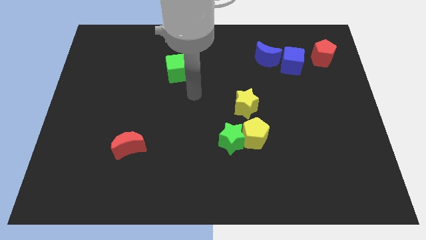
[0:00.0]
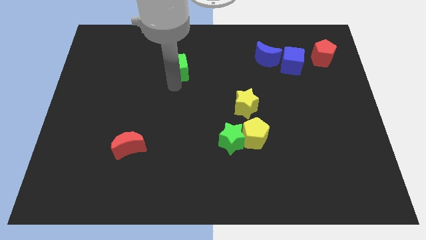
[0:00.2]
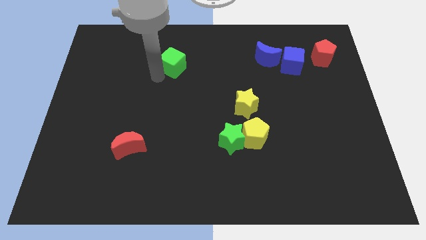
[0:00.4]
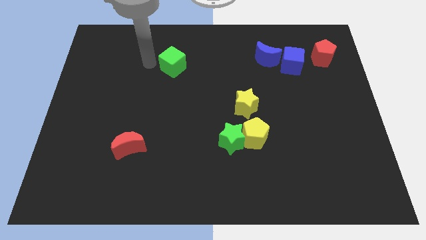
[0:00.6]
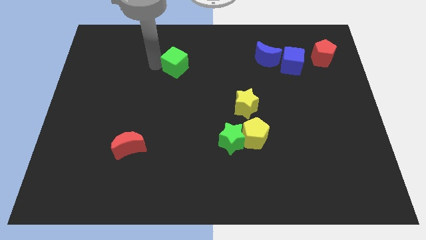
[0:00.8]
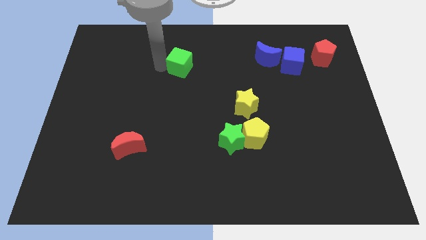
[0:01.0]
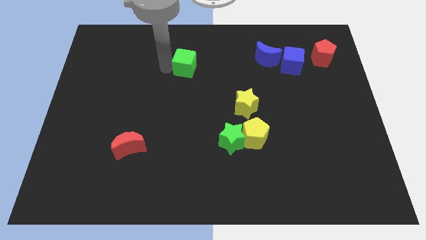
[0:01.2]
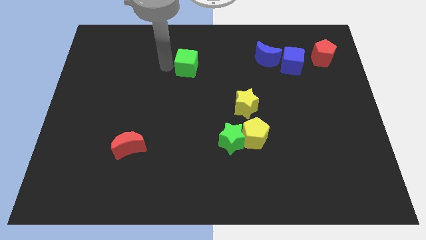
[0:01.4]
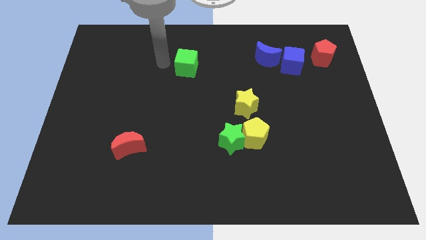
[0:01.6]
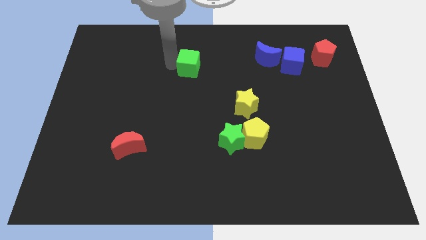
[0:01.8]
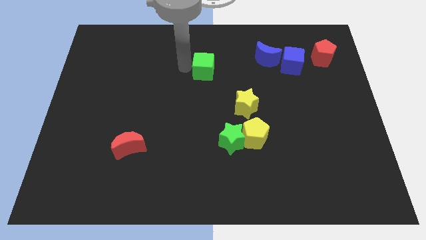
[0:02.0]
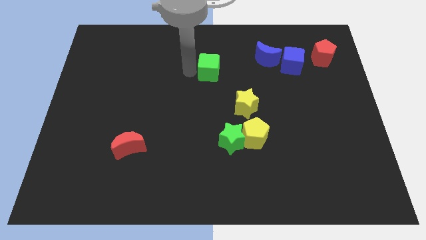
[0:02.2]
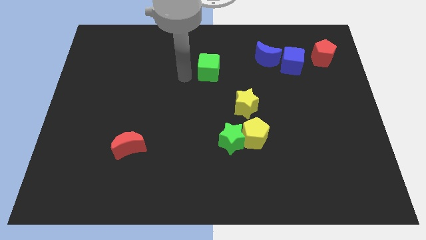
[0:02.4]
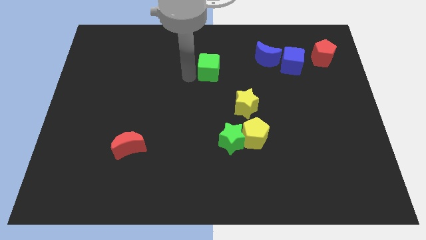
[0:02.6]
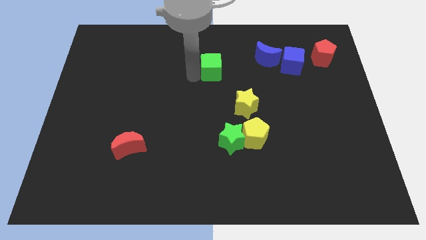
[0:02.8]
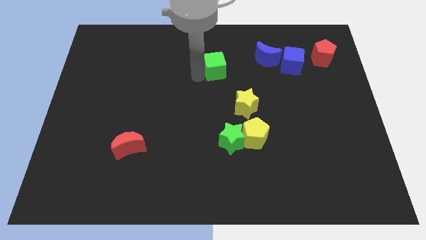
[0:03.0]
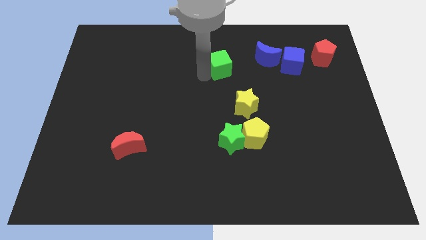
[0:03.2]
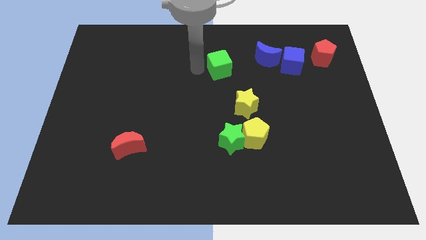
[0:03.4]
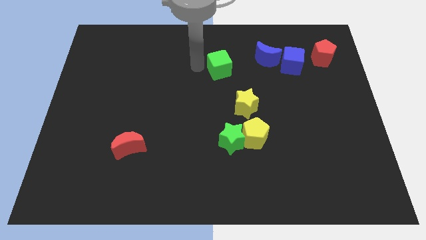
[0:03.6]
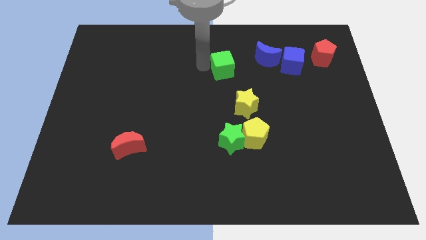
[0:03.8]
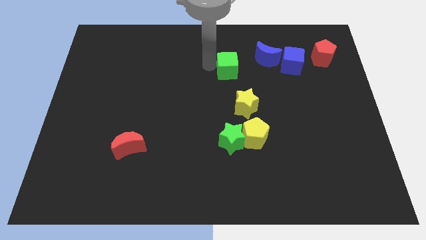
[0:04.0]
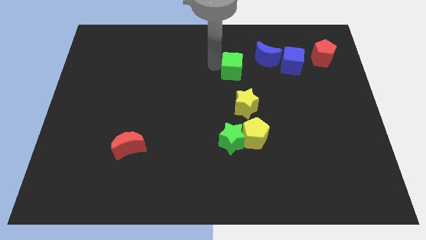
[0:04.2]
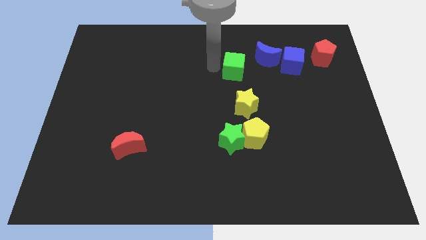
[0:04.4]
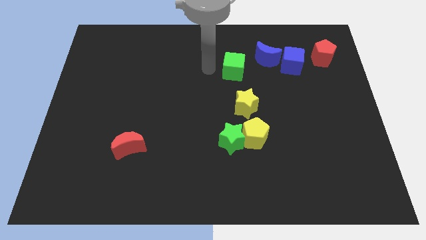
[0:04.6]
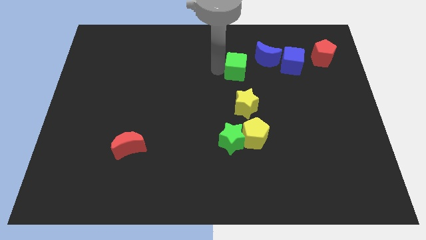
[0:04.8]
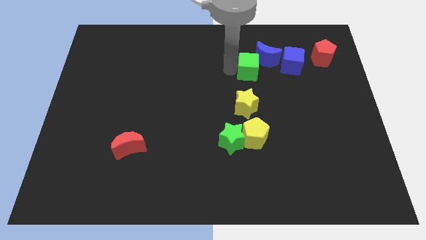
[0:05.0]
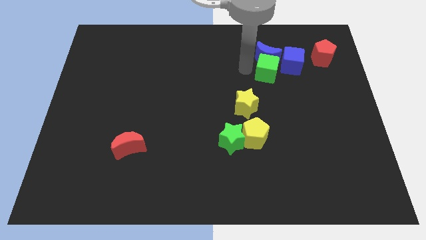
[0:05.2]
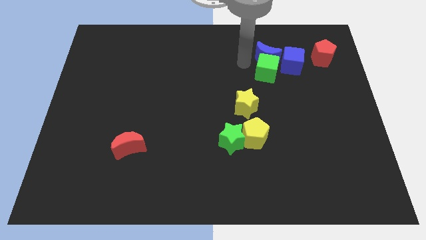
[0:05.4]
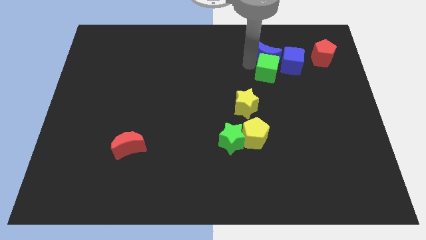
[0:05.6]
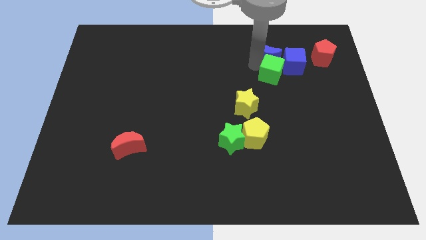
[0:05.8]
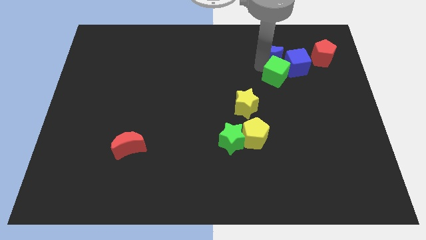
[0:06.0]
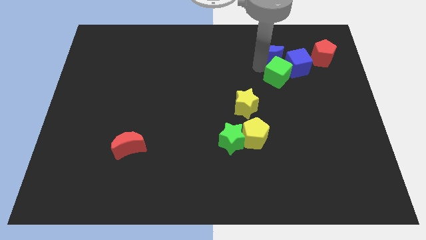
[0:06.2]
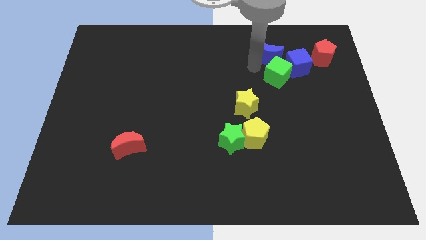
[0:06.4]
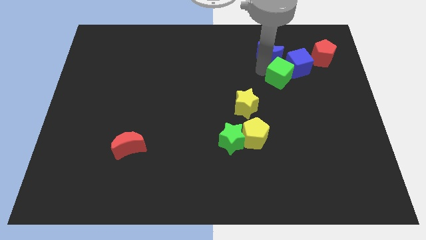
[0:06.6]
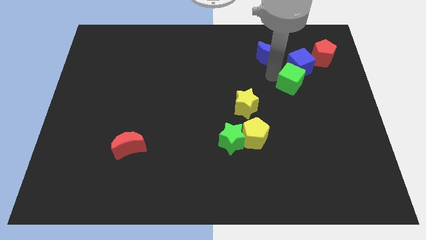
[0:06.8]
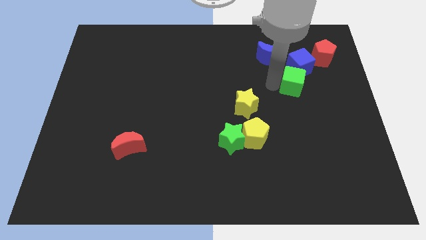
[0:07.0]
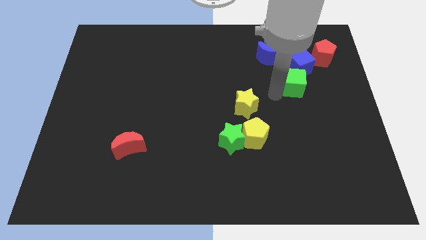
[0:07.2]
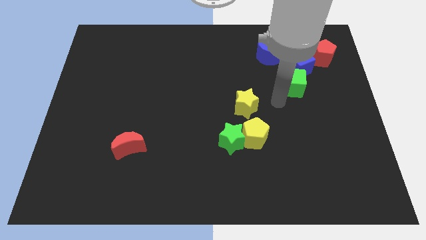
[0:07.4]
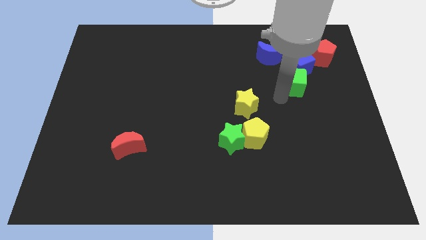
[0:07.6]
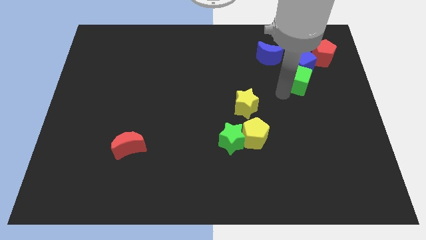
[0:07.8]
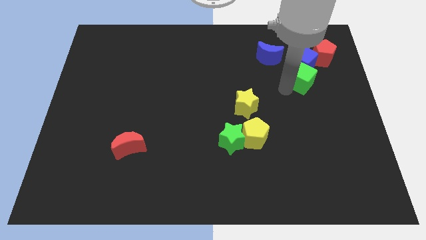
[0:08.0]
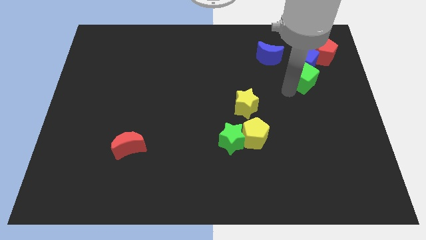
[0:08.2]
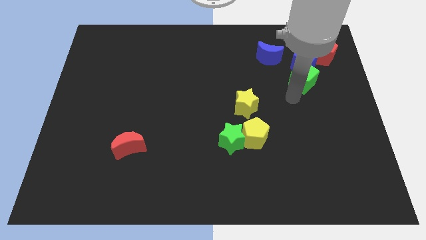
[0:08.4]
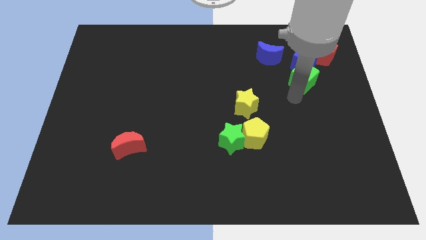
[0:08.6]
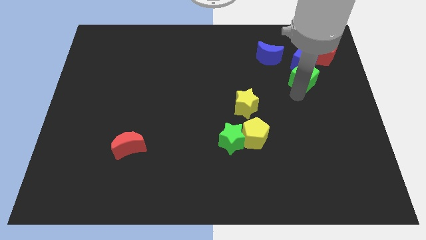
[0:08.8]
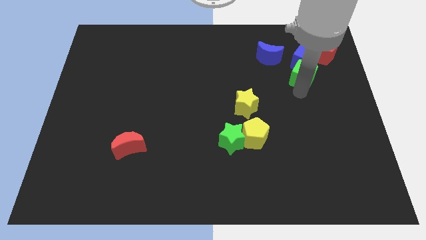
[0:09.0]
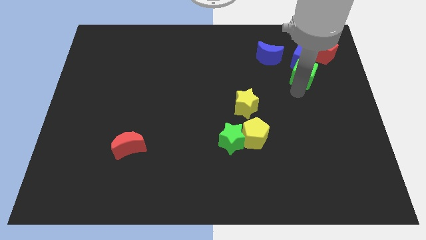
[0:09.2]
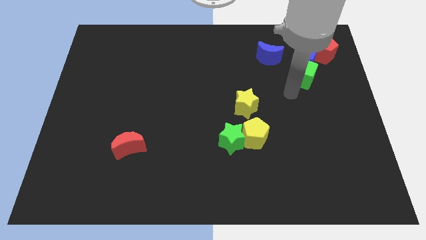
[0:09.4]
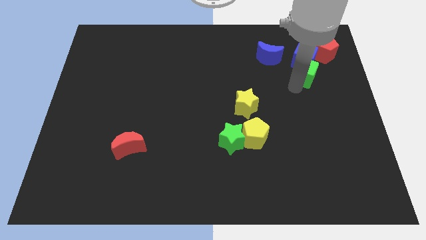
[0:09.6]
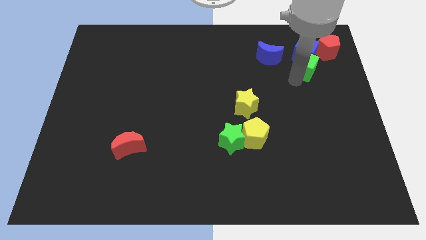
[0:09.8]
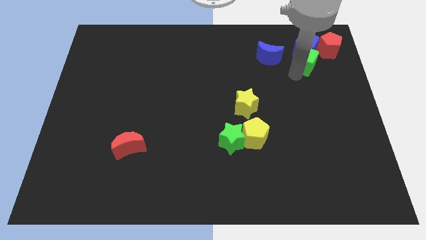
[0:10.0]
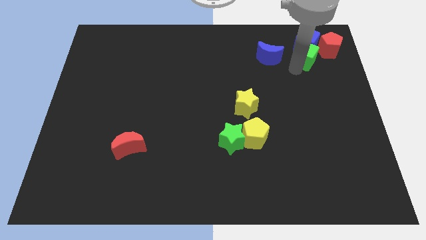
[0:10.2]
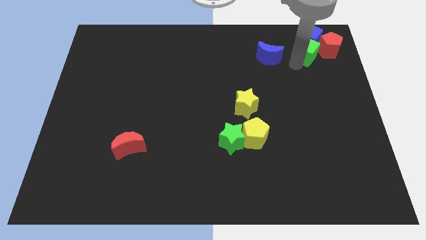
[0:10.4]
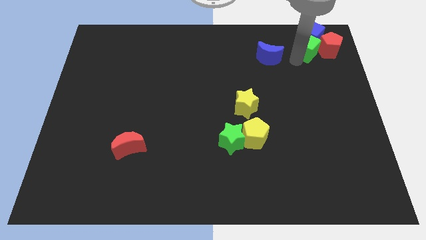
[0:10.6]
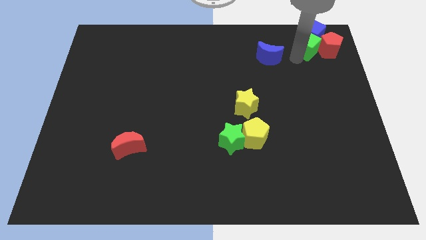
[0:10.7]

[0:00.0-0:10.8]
slide the green cube next to the red pentagon

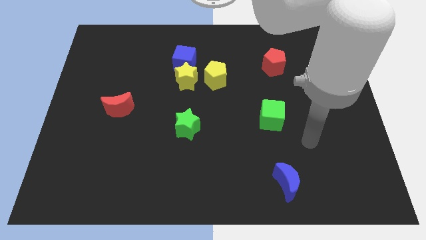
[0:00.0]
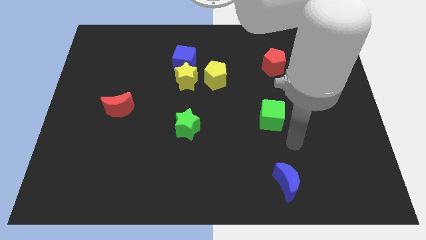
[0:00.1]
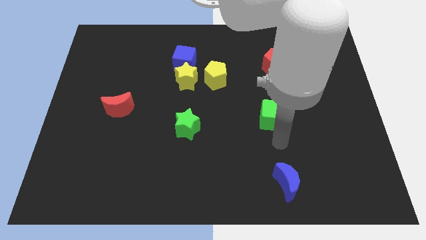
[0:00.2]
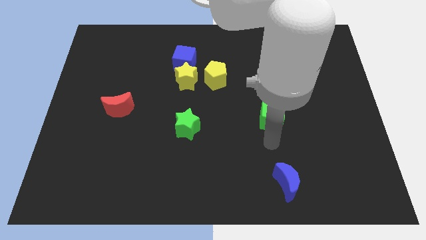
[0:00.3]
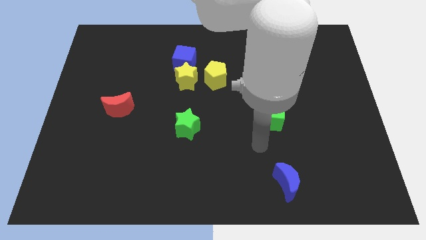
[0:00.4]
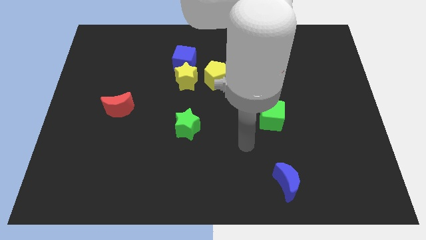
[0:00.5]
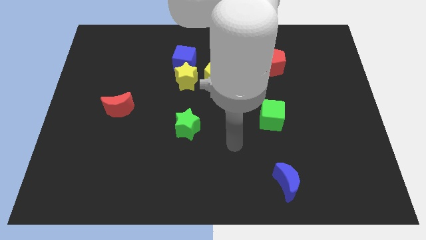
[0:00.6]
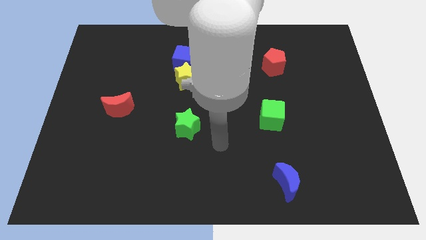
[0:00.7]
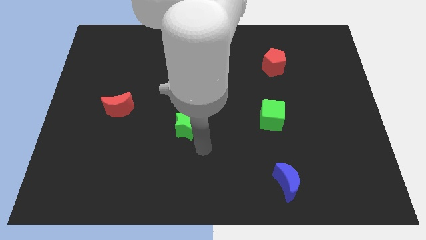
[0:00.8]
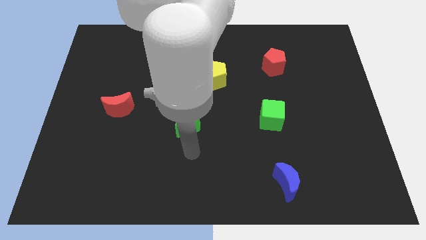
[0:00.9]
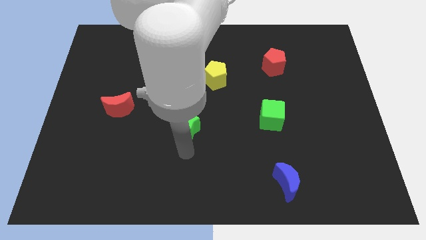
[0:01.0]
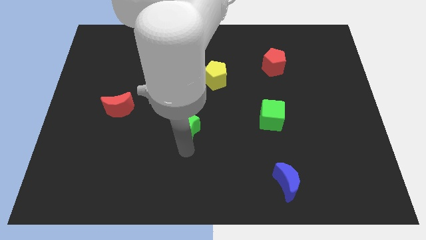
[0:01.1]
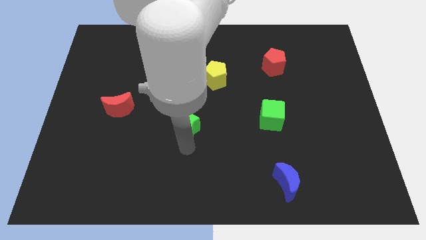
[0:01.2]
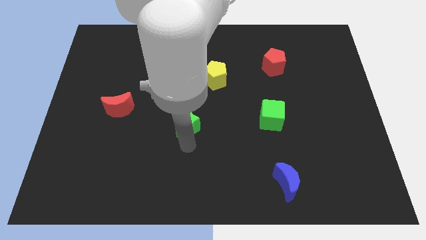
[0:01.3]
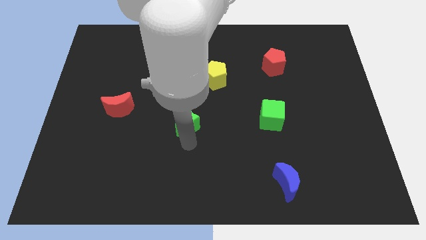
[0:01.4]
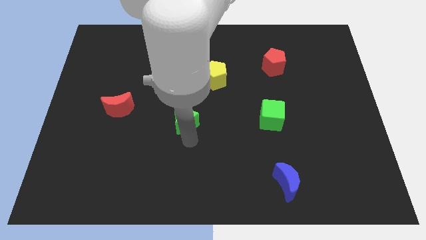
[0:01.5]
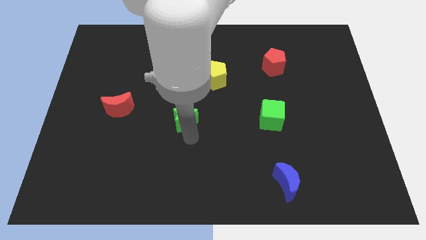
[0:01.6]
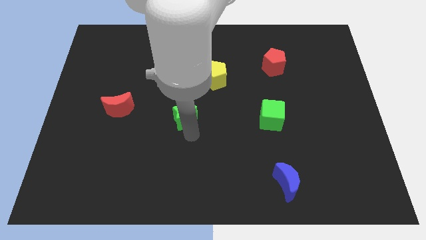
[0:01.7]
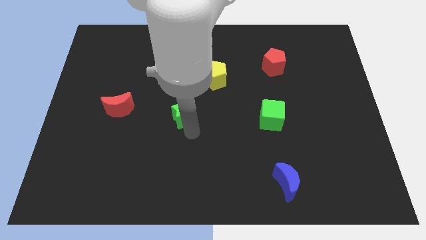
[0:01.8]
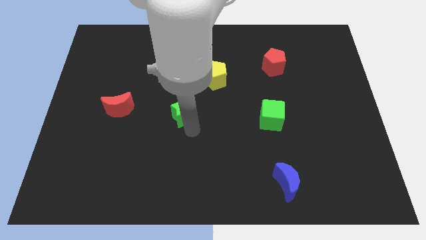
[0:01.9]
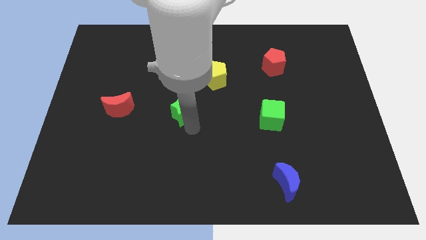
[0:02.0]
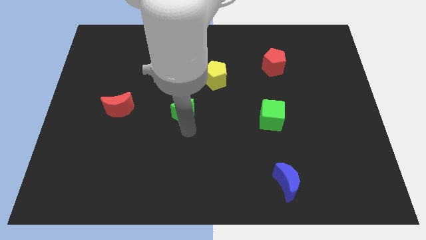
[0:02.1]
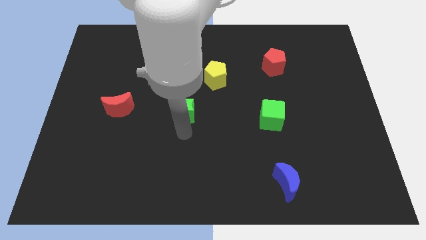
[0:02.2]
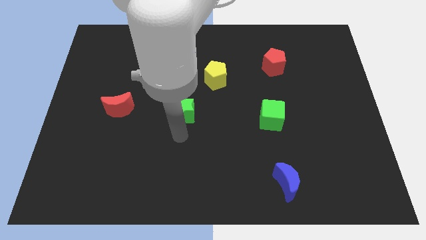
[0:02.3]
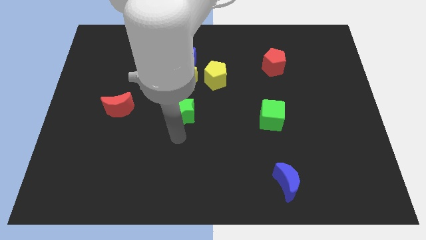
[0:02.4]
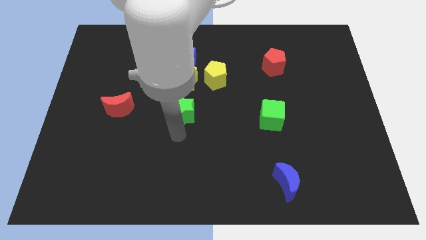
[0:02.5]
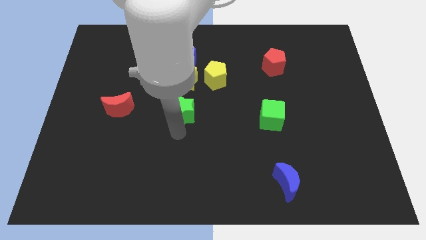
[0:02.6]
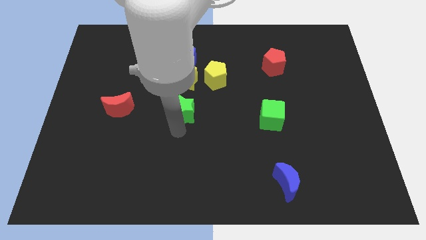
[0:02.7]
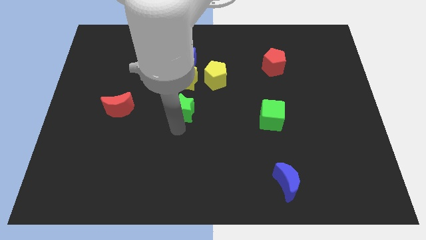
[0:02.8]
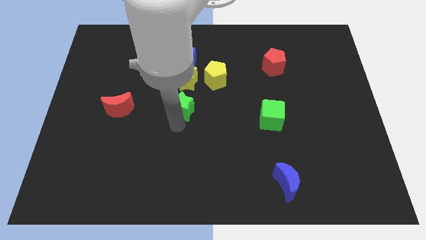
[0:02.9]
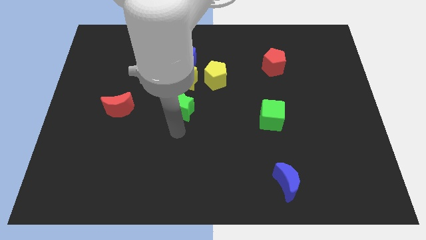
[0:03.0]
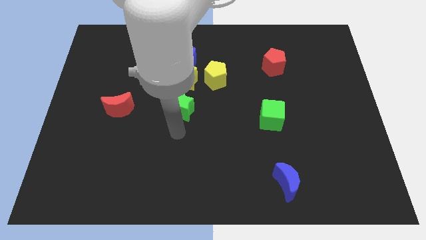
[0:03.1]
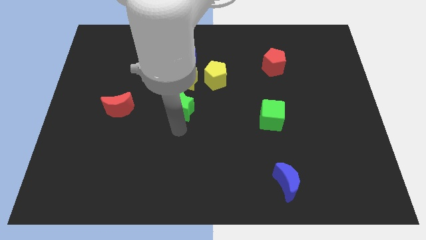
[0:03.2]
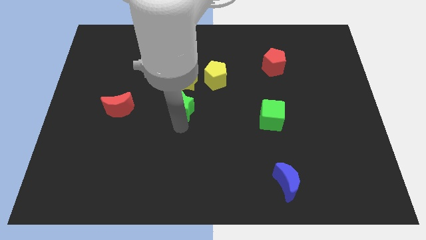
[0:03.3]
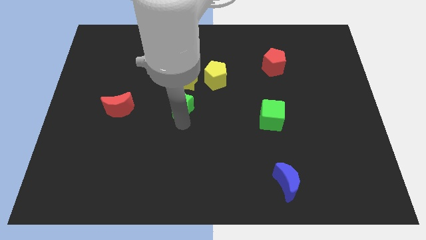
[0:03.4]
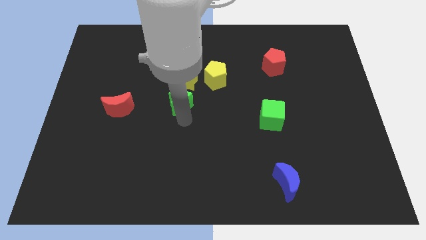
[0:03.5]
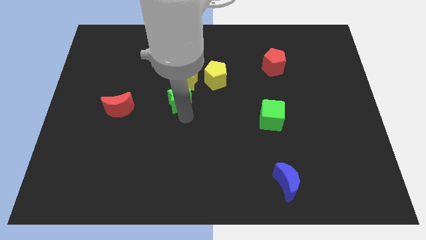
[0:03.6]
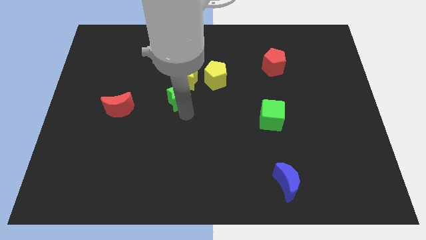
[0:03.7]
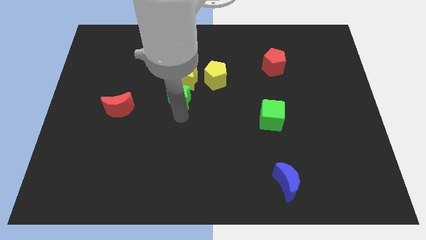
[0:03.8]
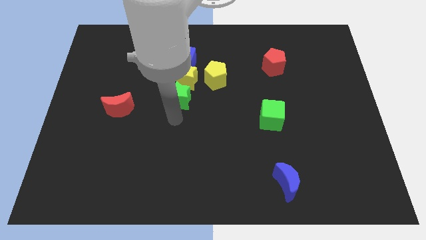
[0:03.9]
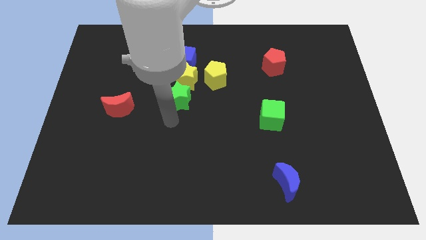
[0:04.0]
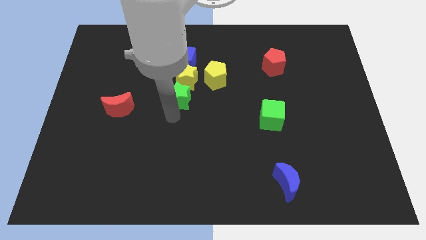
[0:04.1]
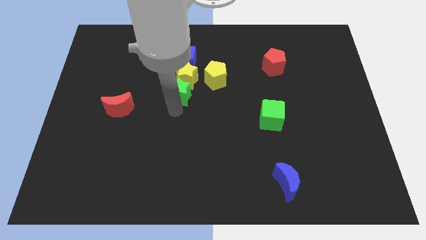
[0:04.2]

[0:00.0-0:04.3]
push the green star towards the yellow star
